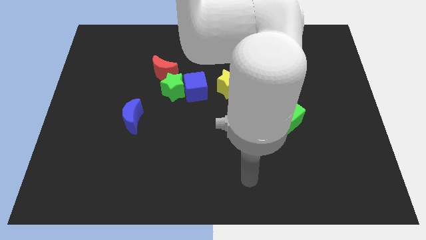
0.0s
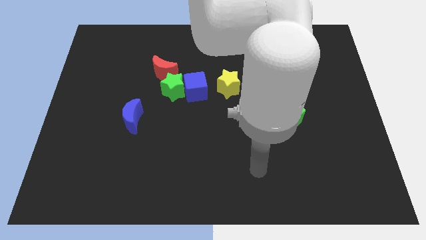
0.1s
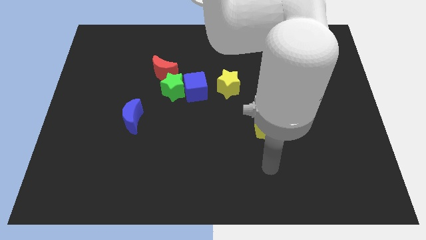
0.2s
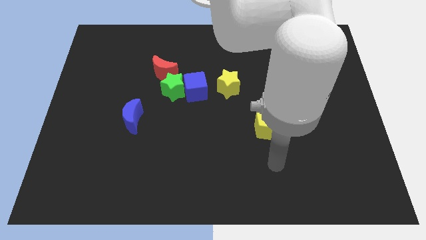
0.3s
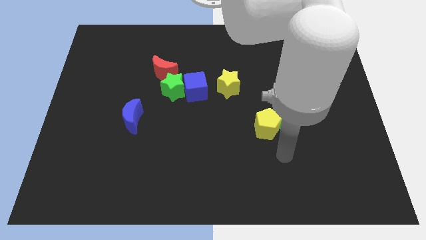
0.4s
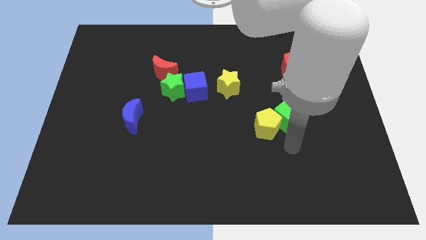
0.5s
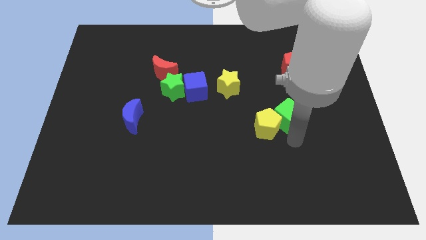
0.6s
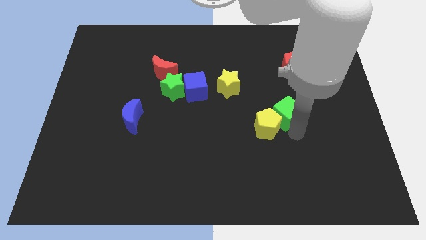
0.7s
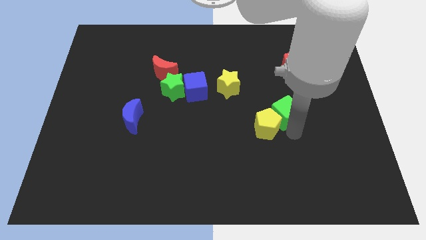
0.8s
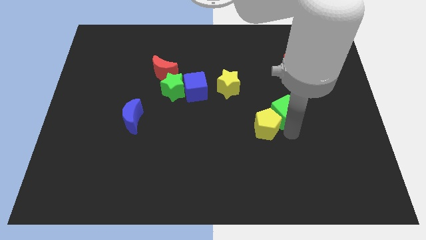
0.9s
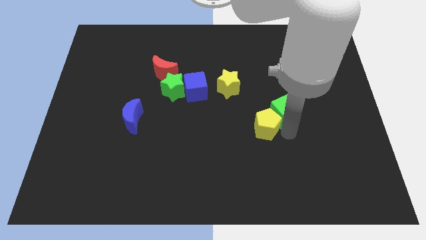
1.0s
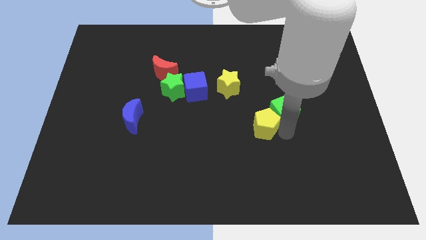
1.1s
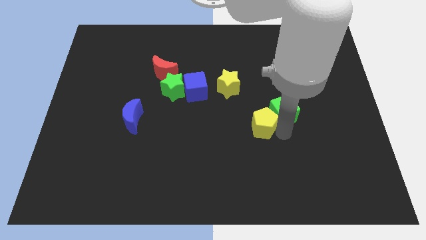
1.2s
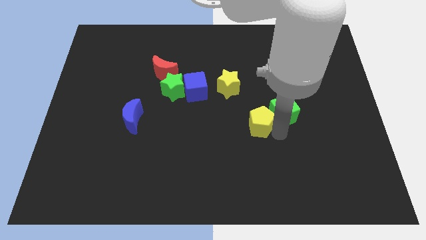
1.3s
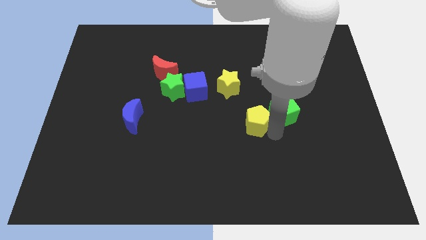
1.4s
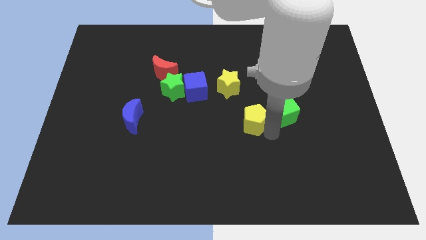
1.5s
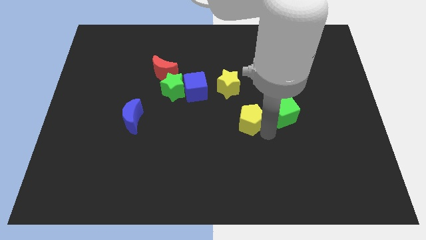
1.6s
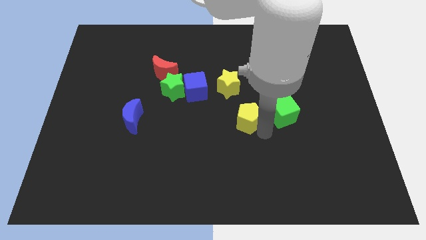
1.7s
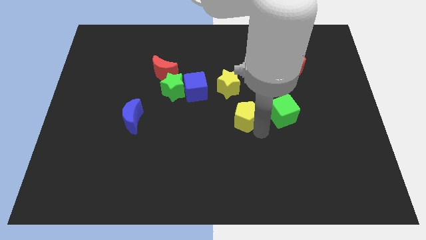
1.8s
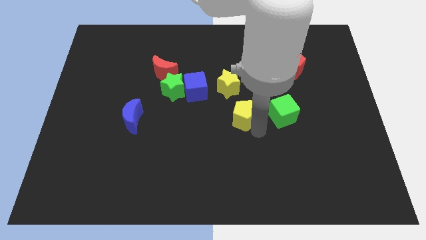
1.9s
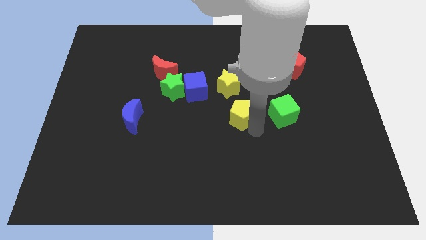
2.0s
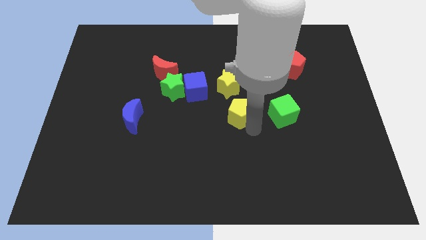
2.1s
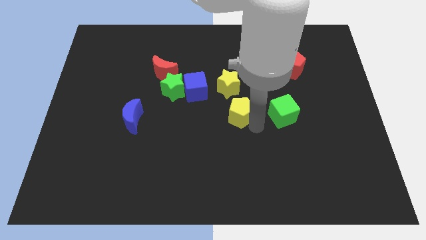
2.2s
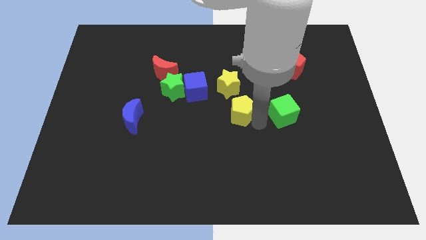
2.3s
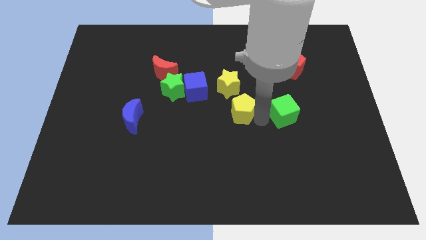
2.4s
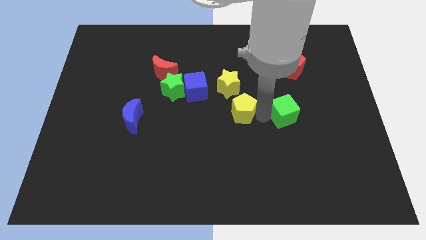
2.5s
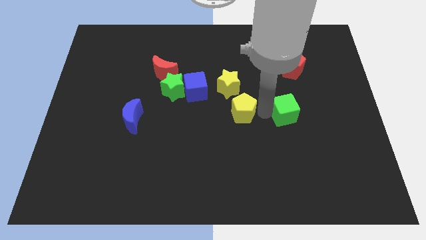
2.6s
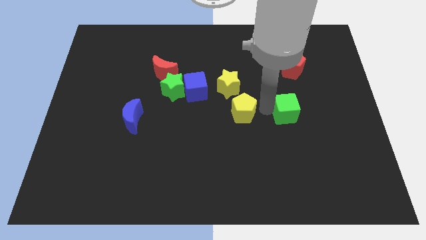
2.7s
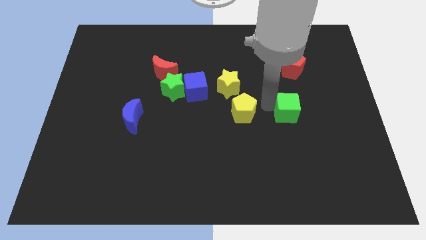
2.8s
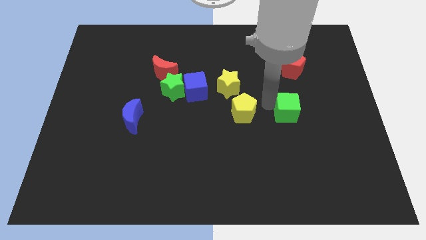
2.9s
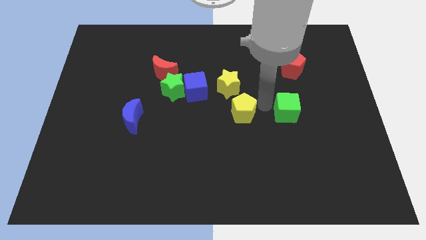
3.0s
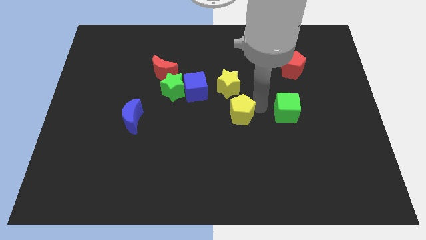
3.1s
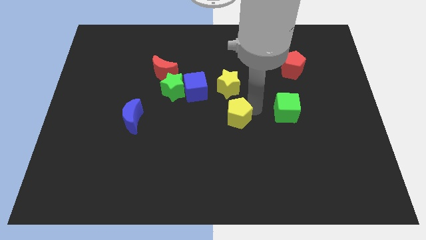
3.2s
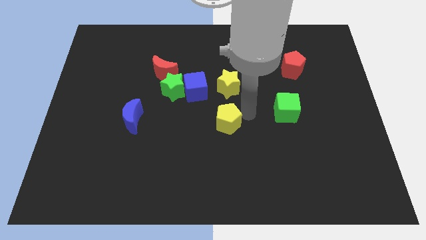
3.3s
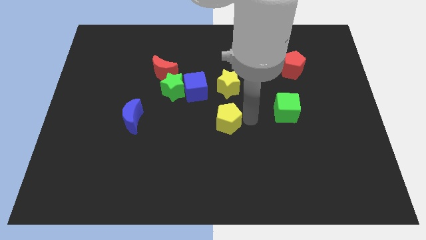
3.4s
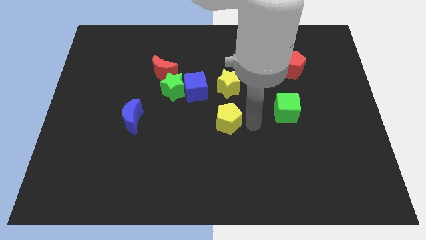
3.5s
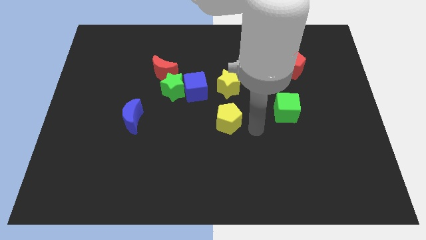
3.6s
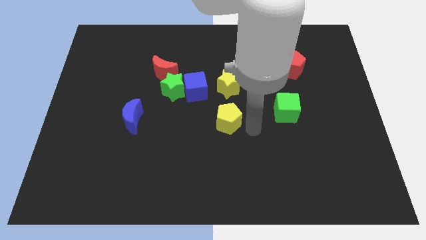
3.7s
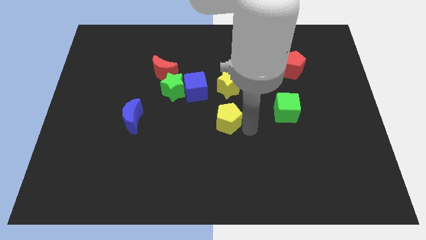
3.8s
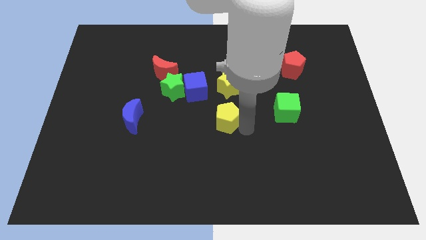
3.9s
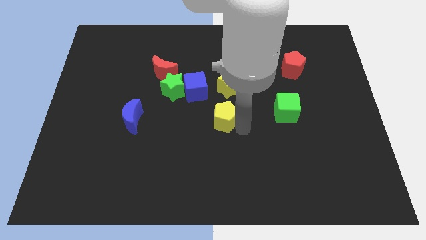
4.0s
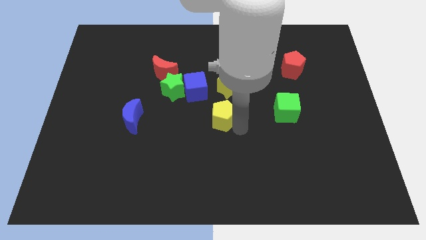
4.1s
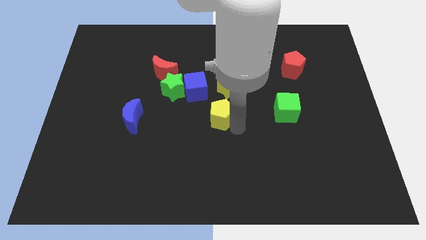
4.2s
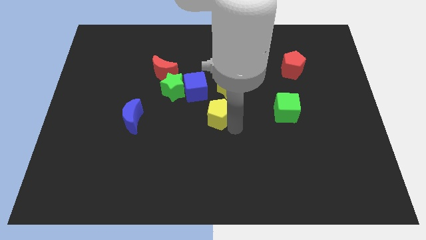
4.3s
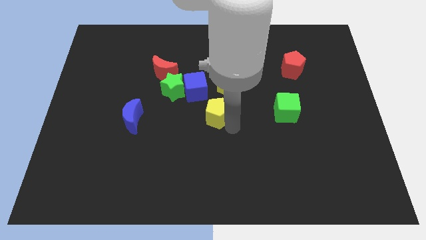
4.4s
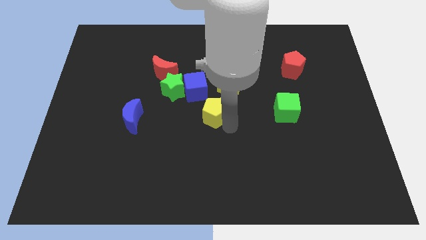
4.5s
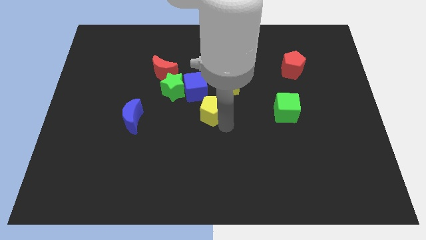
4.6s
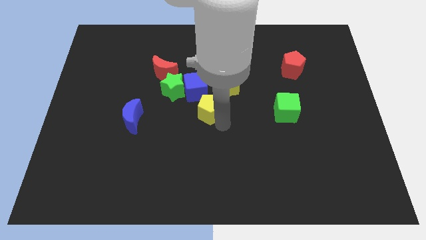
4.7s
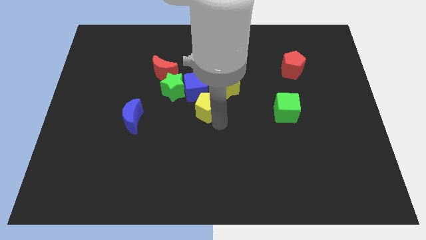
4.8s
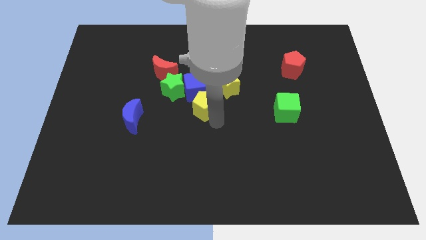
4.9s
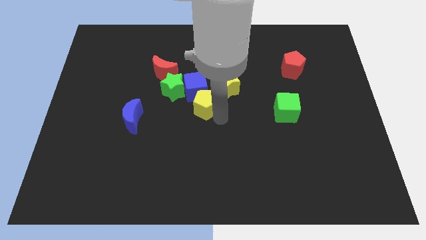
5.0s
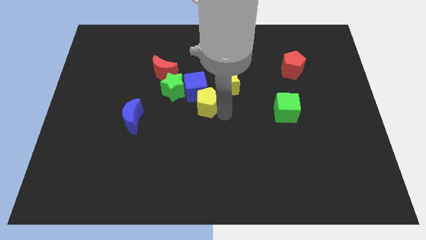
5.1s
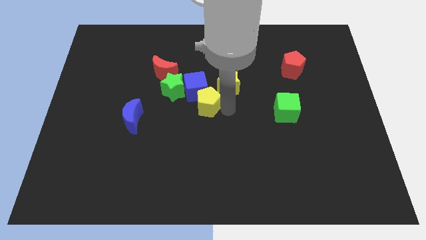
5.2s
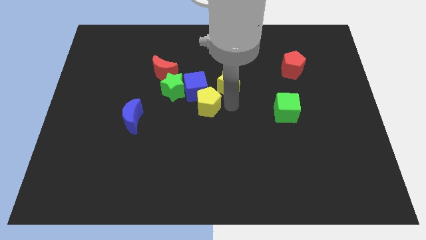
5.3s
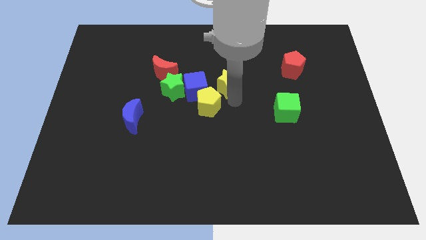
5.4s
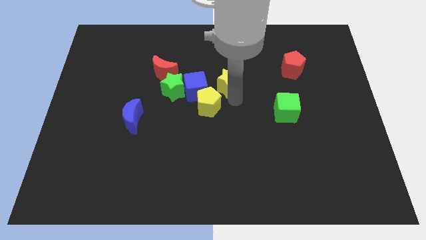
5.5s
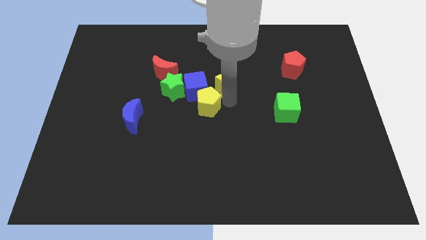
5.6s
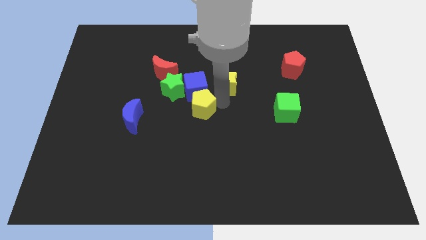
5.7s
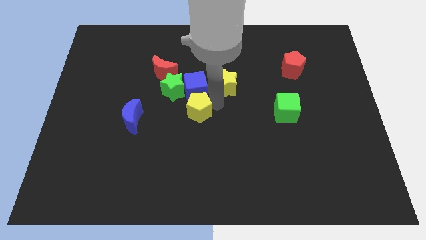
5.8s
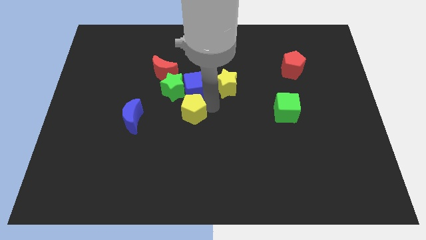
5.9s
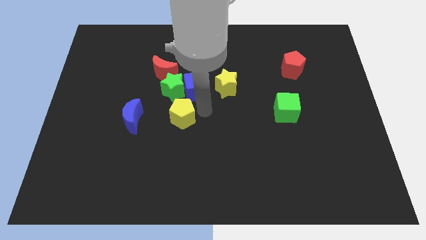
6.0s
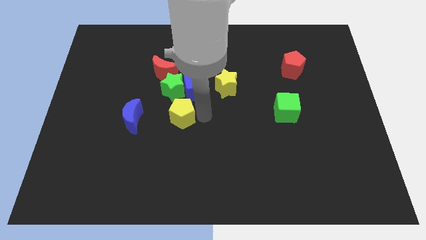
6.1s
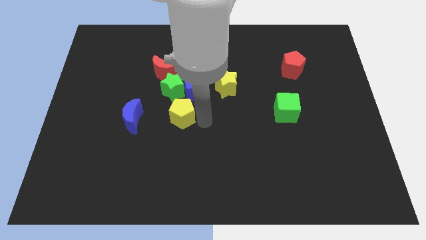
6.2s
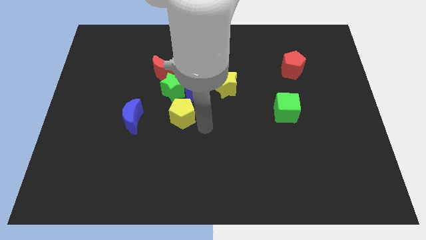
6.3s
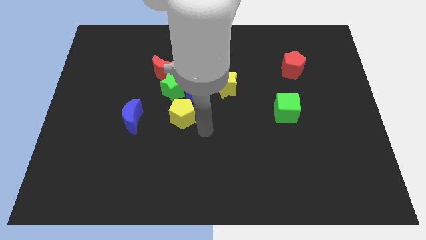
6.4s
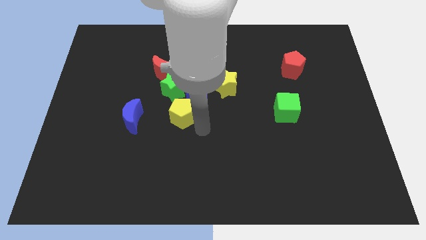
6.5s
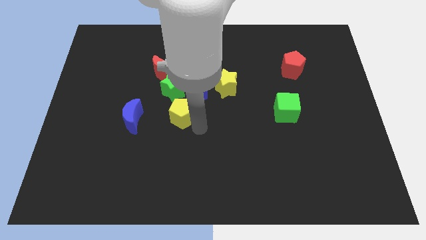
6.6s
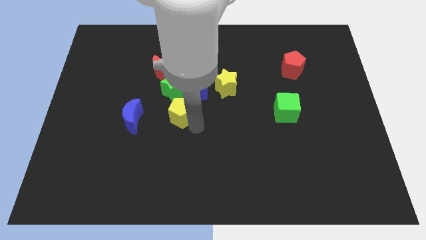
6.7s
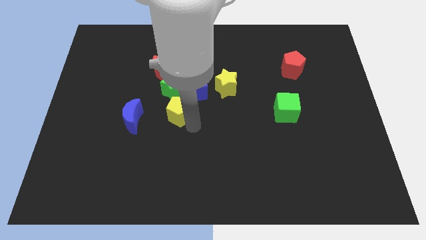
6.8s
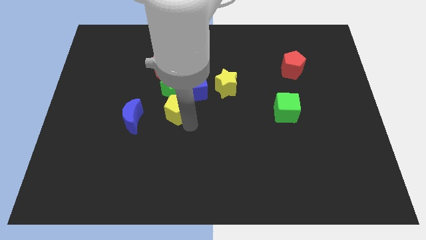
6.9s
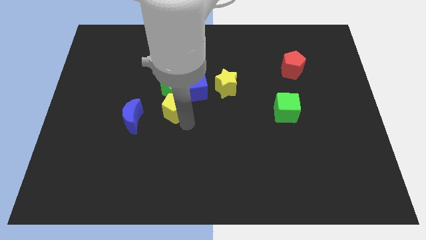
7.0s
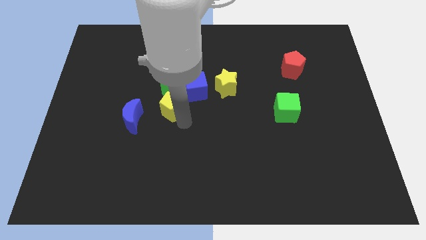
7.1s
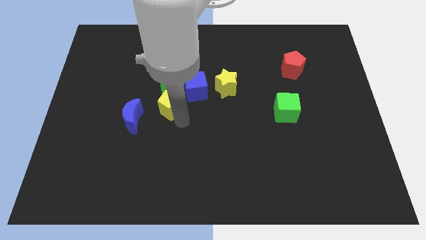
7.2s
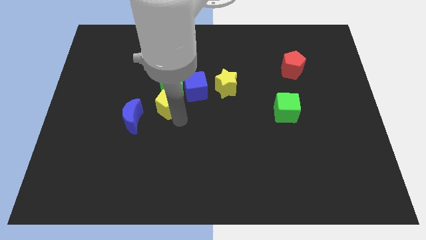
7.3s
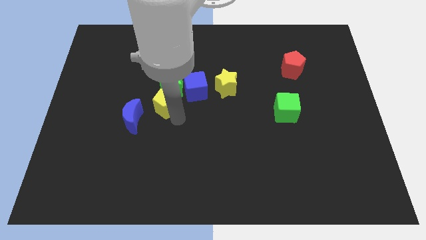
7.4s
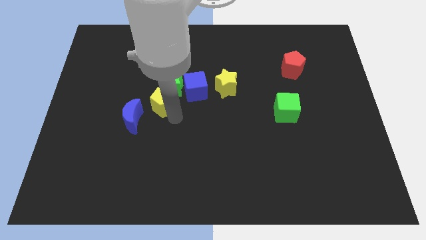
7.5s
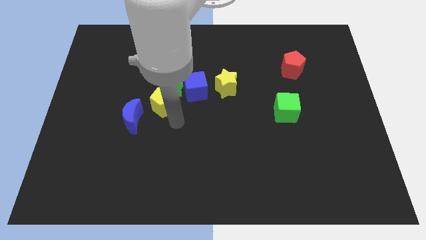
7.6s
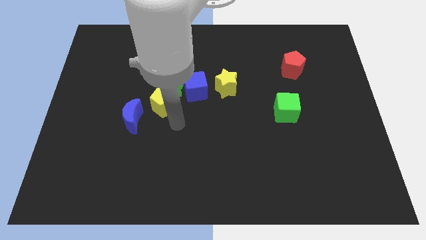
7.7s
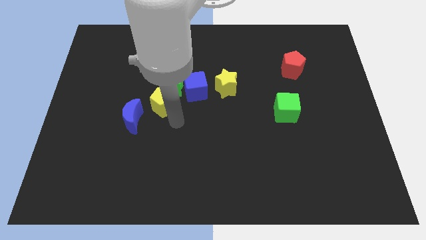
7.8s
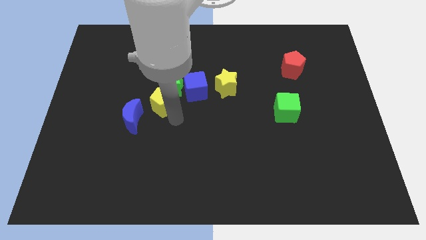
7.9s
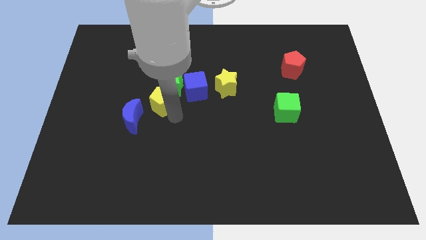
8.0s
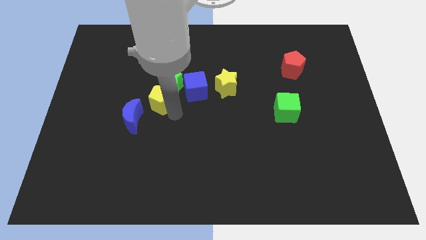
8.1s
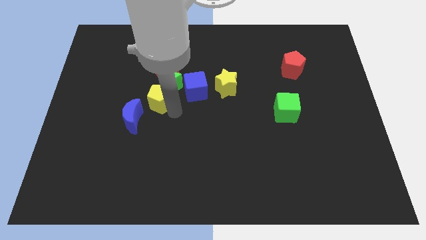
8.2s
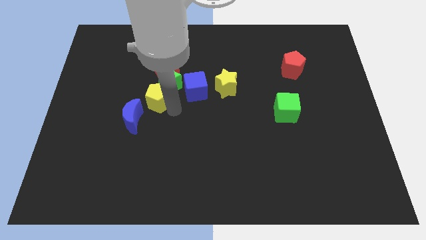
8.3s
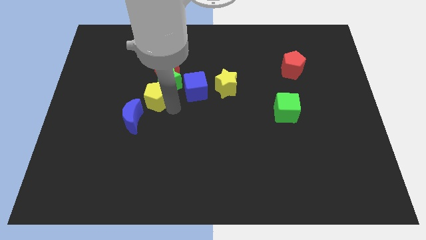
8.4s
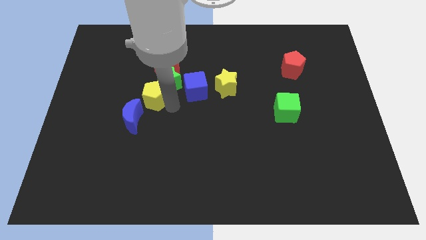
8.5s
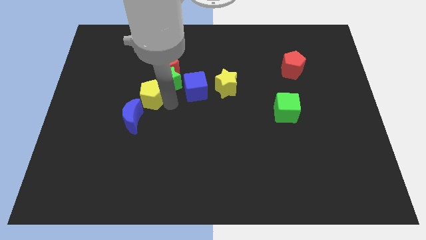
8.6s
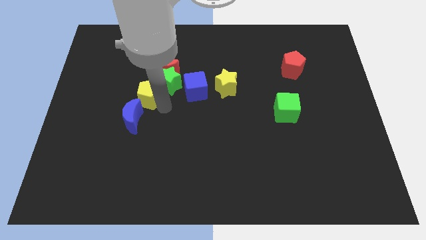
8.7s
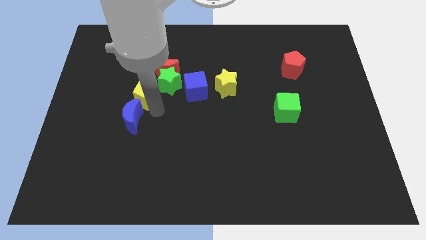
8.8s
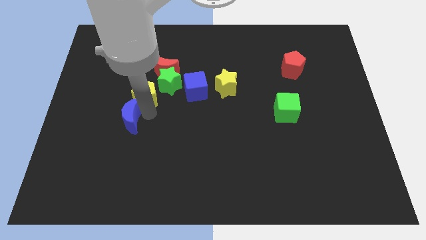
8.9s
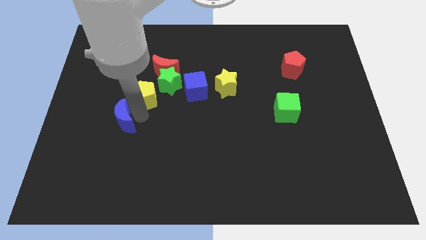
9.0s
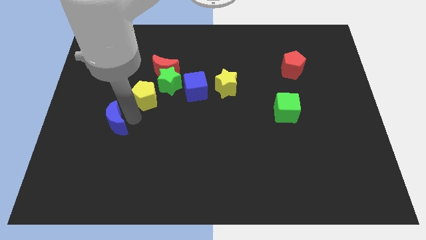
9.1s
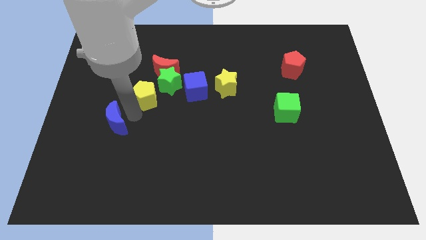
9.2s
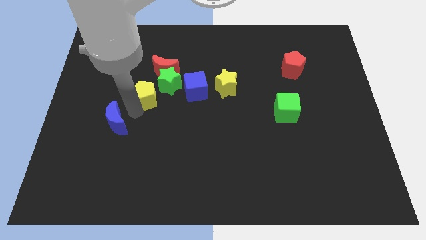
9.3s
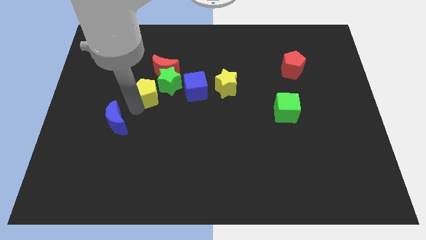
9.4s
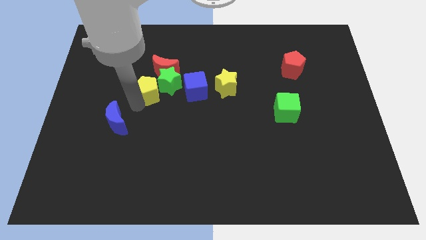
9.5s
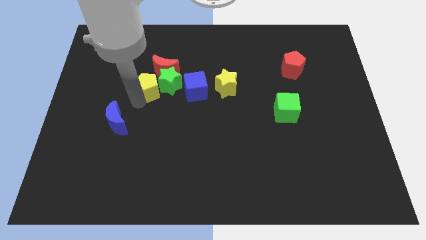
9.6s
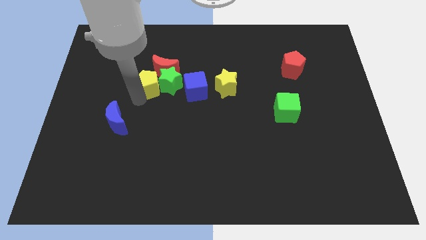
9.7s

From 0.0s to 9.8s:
push the yellow pentagon towards the red moon
